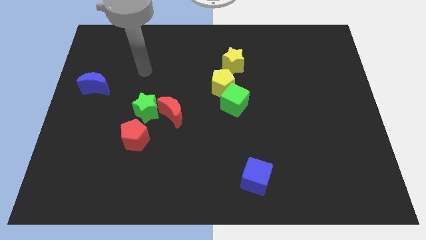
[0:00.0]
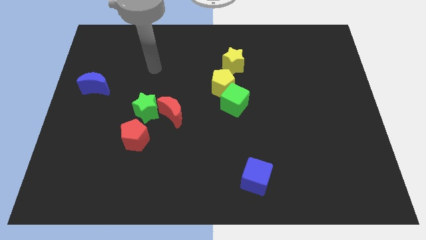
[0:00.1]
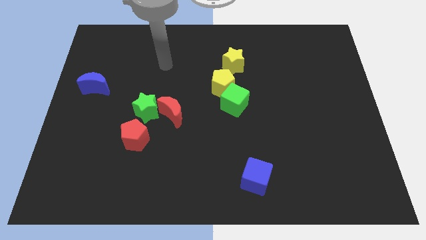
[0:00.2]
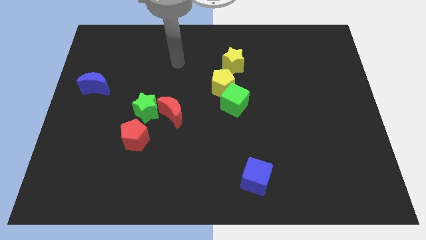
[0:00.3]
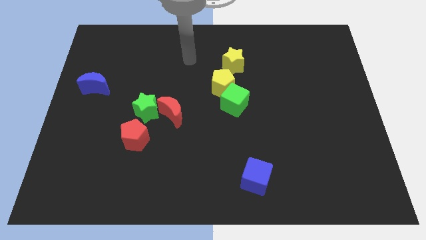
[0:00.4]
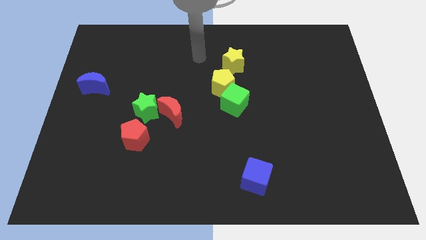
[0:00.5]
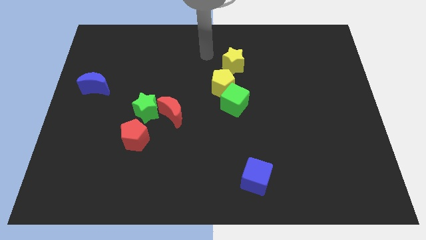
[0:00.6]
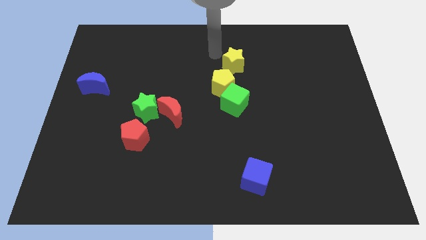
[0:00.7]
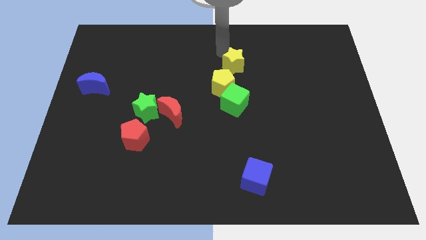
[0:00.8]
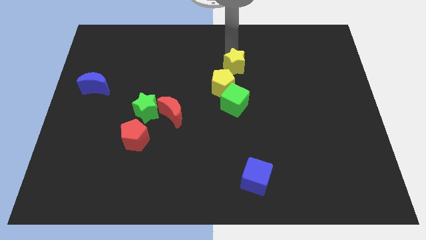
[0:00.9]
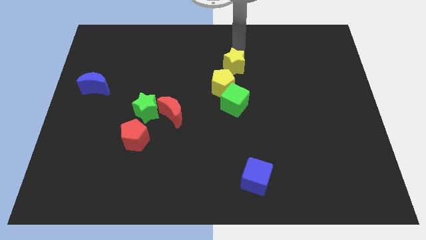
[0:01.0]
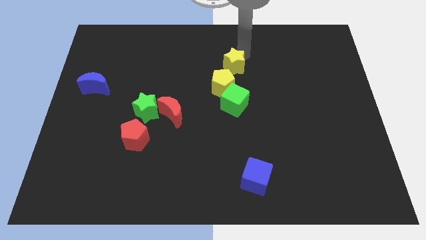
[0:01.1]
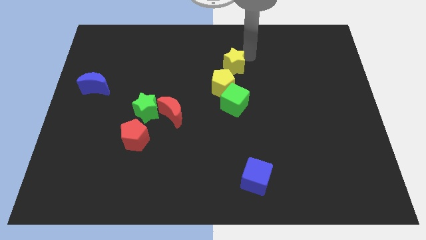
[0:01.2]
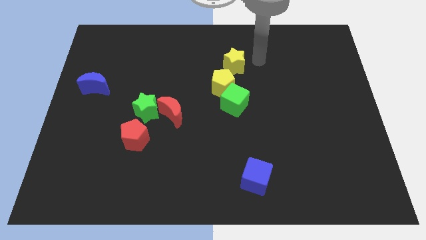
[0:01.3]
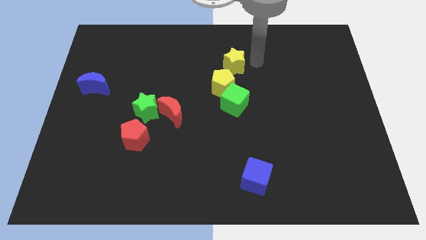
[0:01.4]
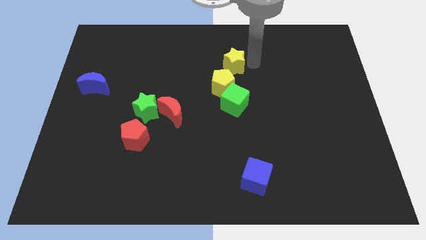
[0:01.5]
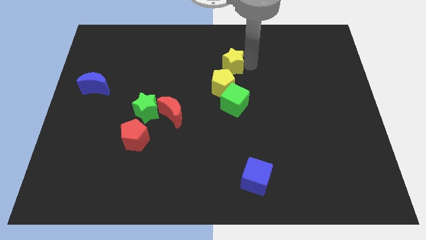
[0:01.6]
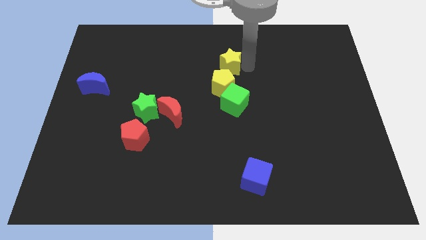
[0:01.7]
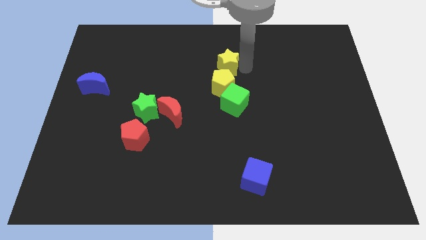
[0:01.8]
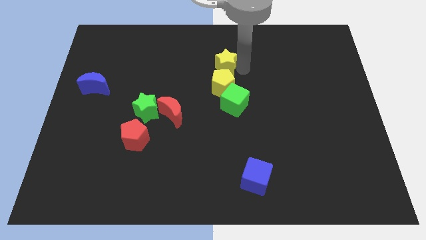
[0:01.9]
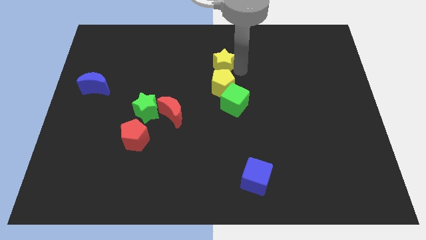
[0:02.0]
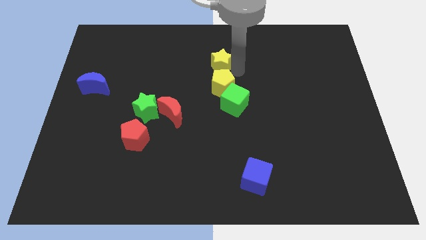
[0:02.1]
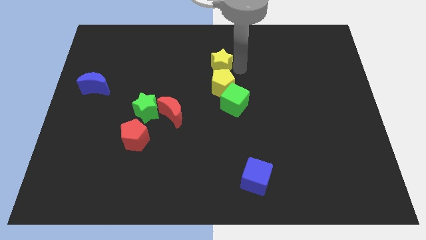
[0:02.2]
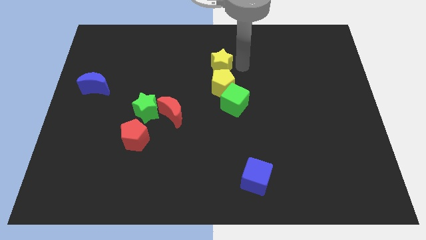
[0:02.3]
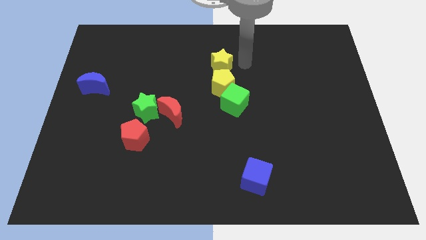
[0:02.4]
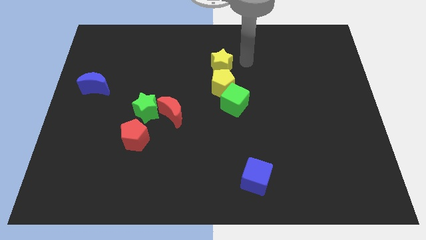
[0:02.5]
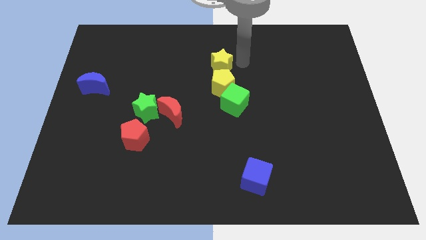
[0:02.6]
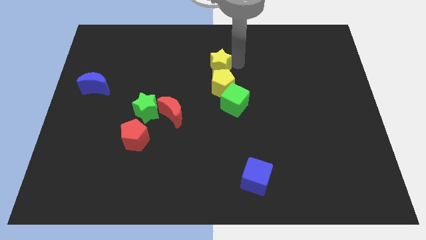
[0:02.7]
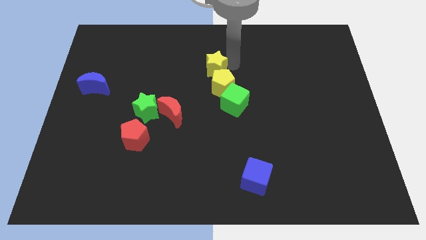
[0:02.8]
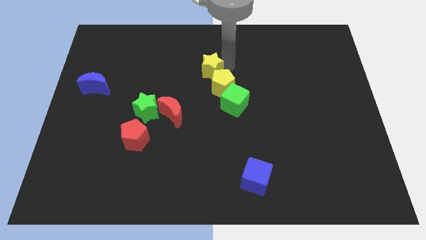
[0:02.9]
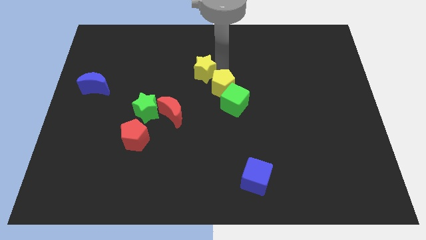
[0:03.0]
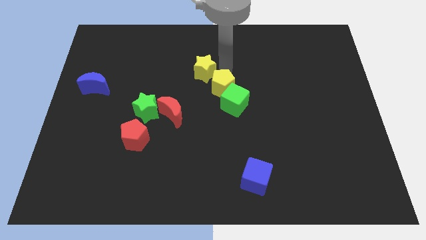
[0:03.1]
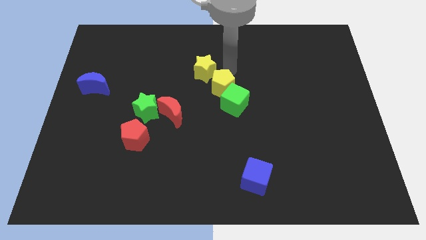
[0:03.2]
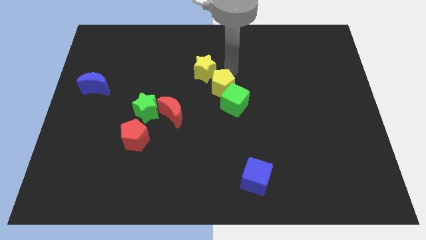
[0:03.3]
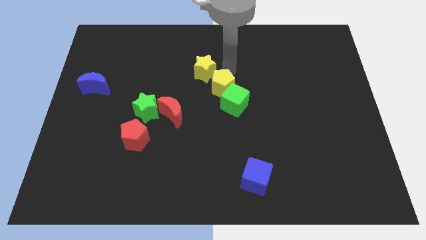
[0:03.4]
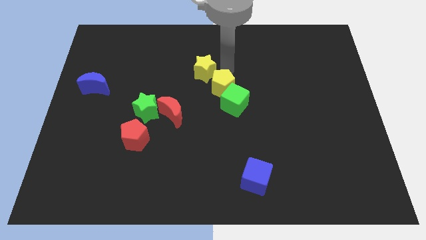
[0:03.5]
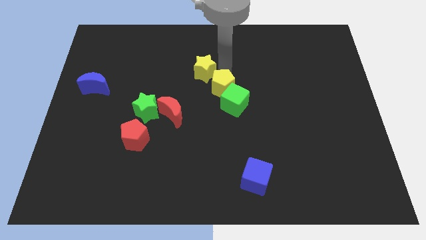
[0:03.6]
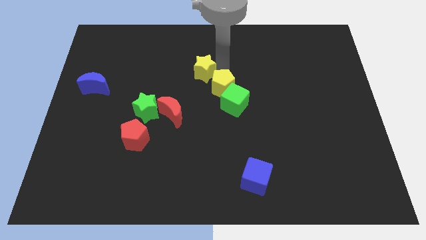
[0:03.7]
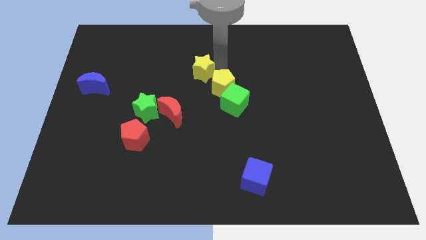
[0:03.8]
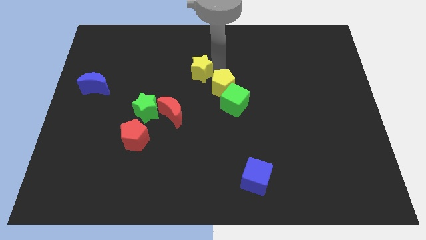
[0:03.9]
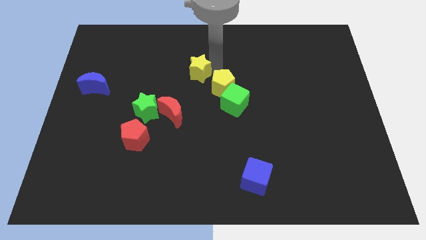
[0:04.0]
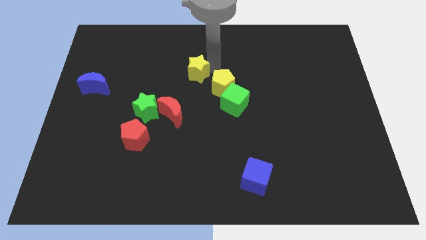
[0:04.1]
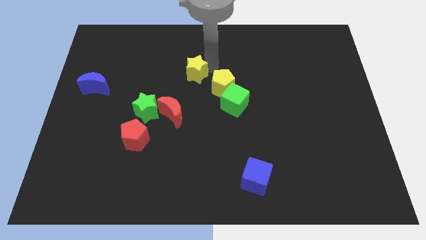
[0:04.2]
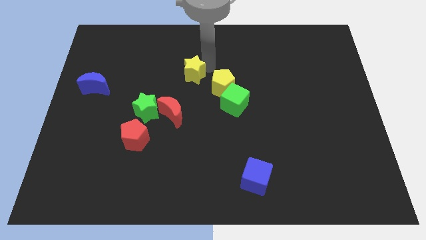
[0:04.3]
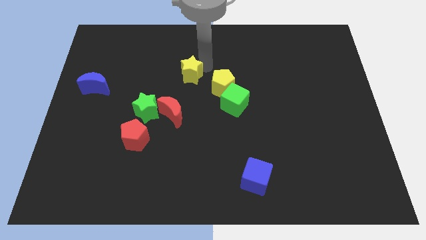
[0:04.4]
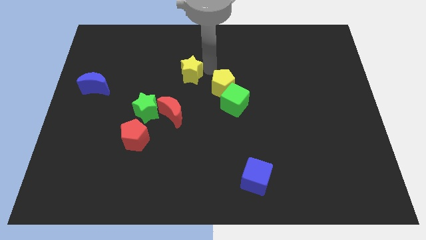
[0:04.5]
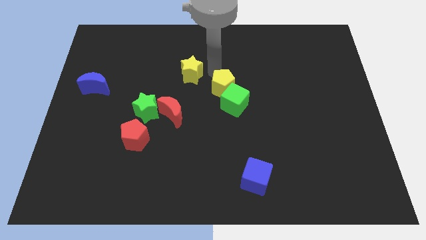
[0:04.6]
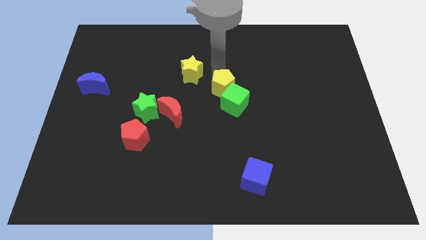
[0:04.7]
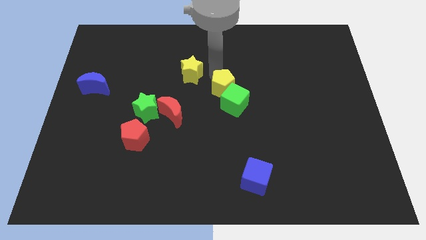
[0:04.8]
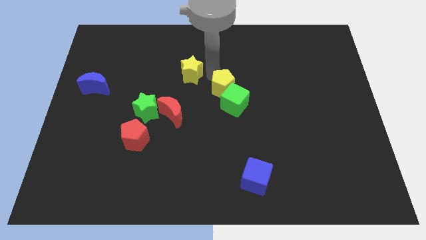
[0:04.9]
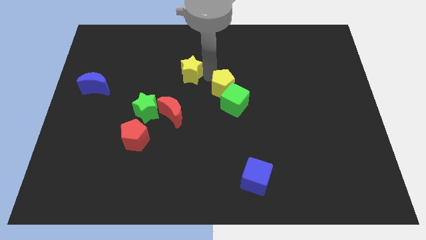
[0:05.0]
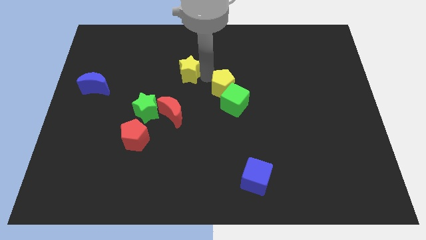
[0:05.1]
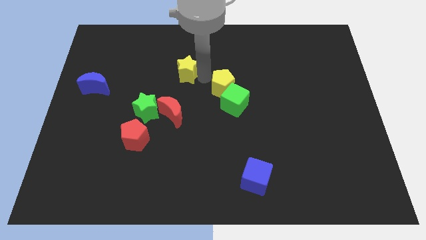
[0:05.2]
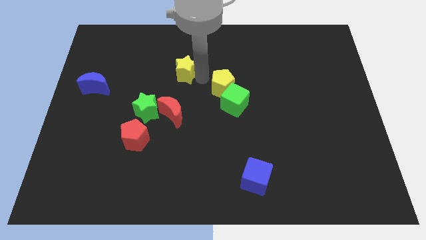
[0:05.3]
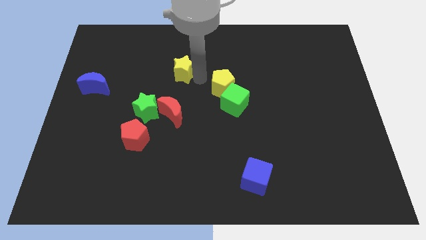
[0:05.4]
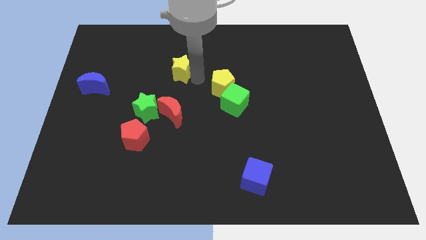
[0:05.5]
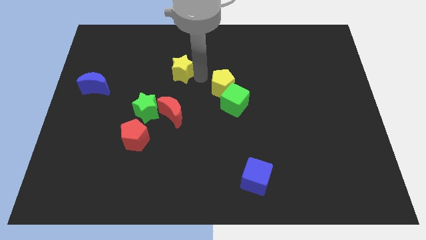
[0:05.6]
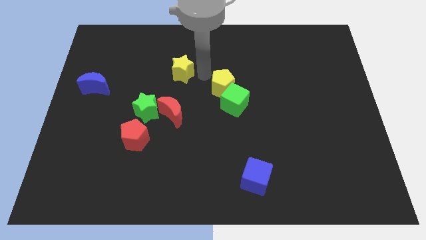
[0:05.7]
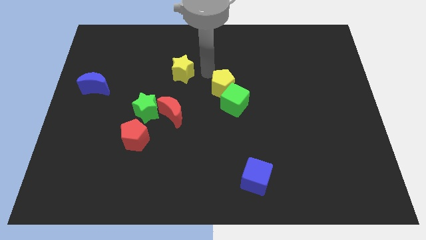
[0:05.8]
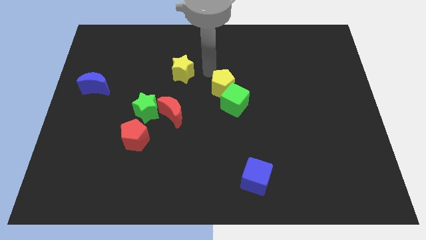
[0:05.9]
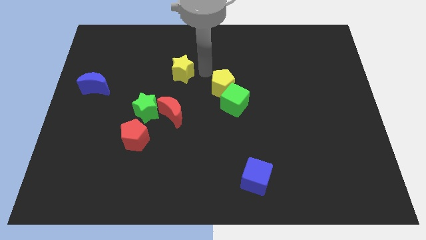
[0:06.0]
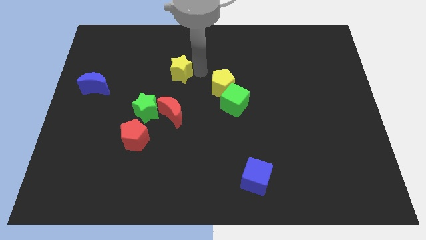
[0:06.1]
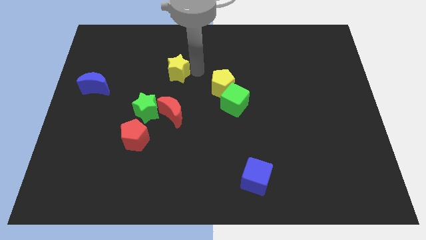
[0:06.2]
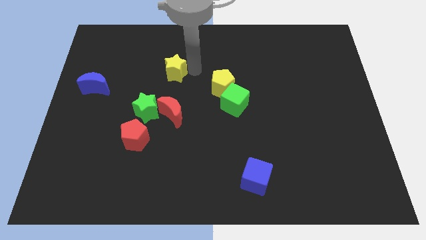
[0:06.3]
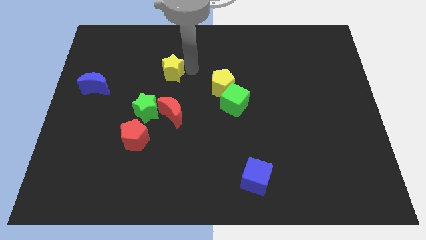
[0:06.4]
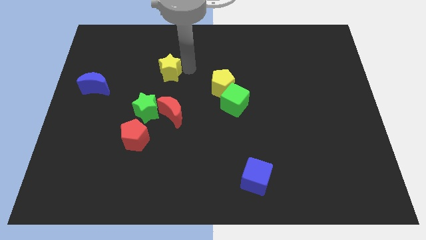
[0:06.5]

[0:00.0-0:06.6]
put the yellow star to the top of the green star

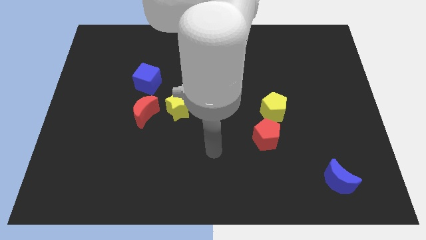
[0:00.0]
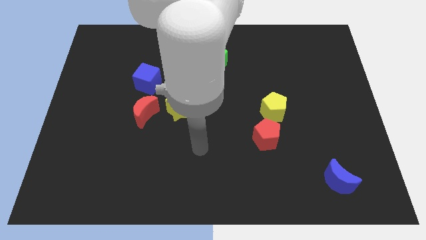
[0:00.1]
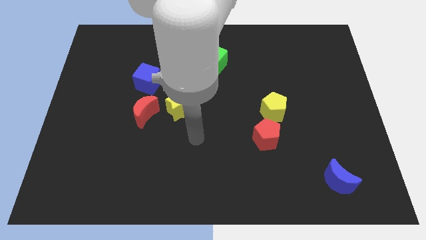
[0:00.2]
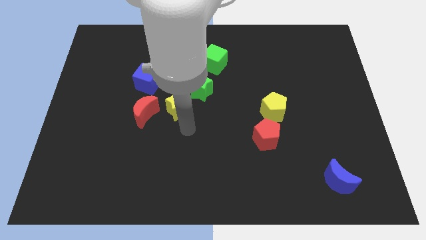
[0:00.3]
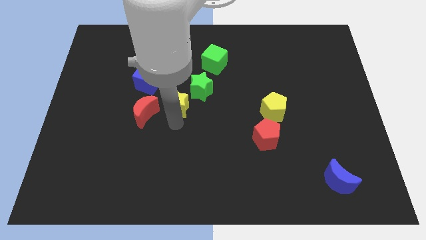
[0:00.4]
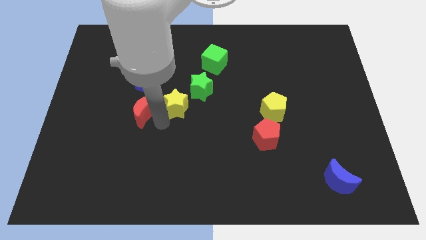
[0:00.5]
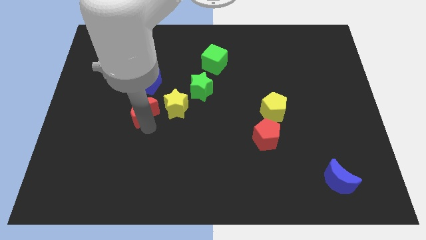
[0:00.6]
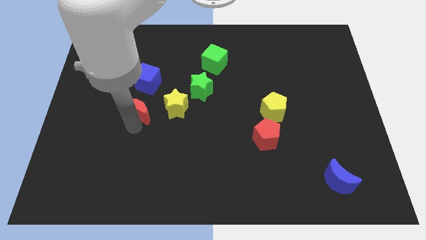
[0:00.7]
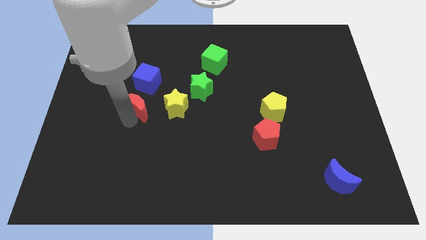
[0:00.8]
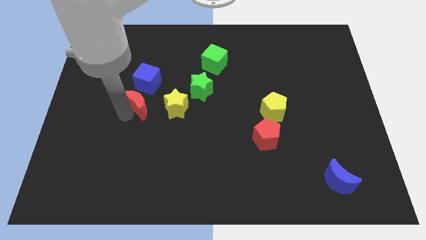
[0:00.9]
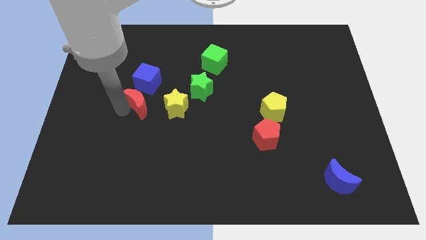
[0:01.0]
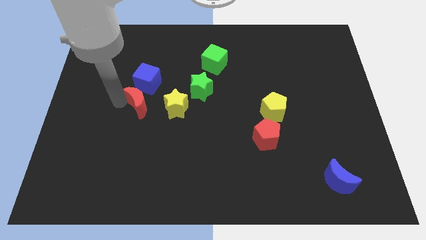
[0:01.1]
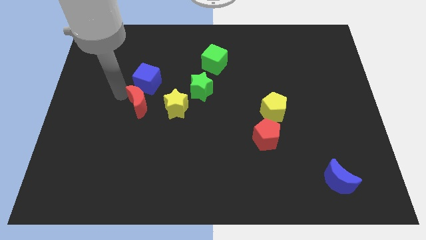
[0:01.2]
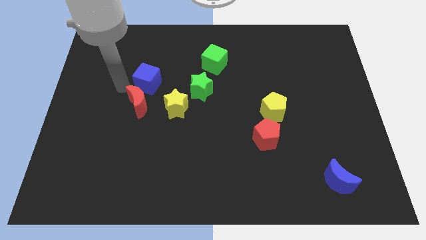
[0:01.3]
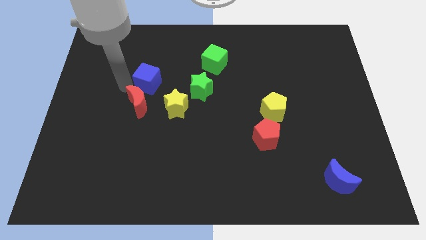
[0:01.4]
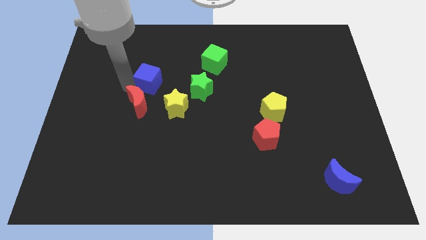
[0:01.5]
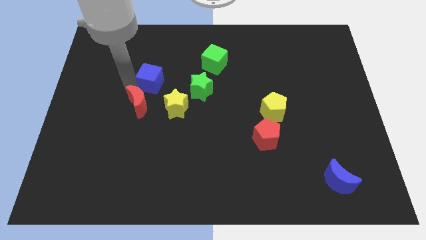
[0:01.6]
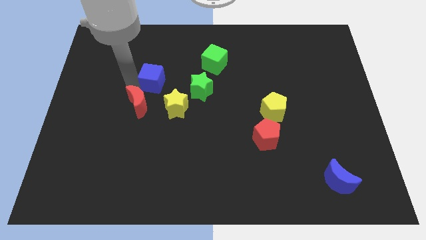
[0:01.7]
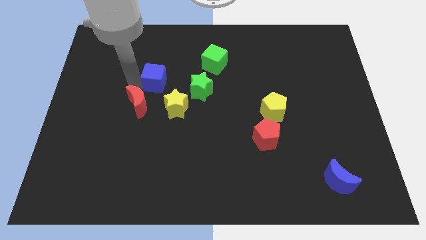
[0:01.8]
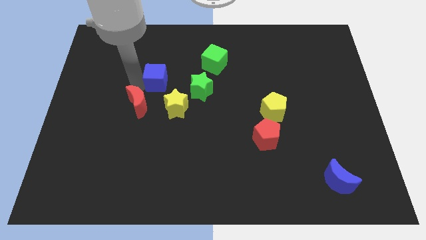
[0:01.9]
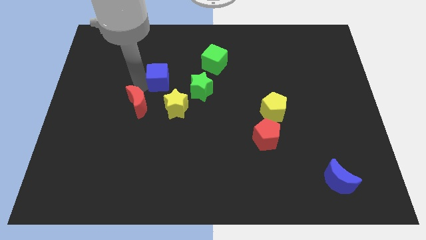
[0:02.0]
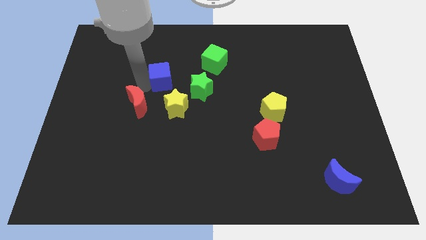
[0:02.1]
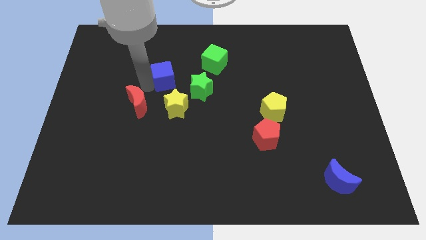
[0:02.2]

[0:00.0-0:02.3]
slide the blue cube diagonally up and to the left of the green star
